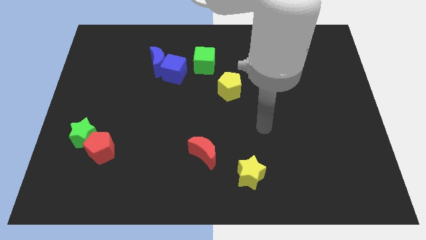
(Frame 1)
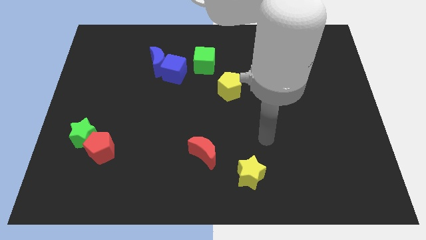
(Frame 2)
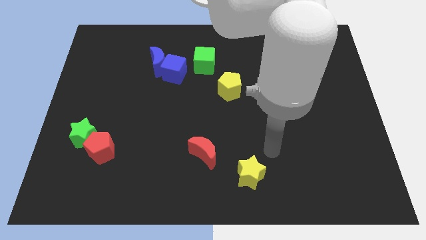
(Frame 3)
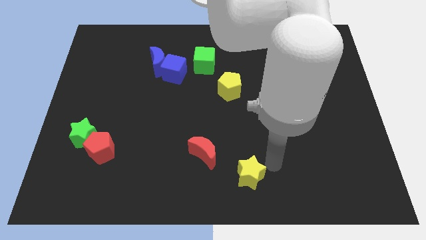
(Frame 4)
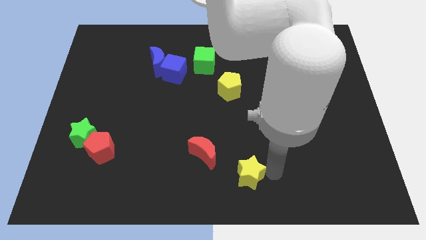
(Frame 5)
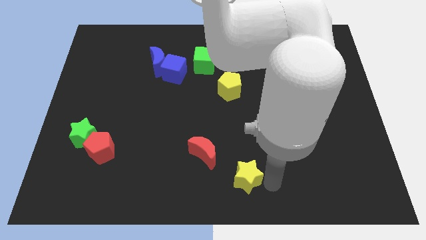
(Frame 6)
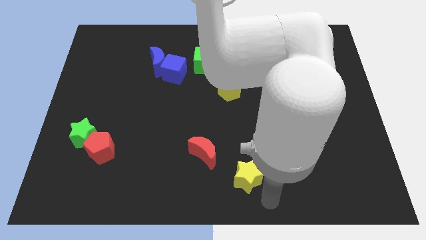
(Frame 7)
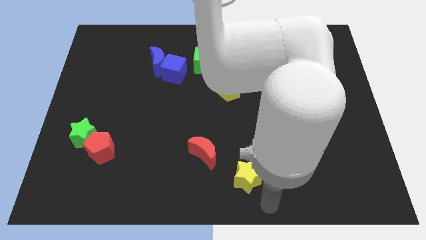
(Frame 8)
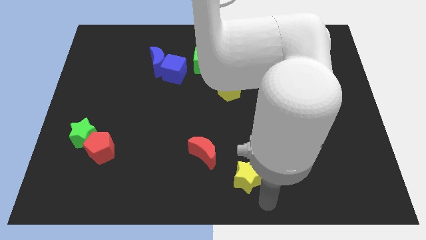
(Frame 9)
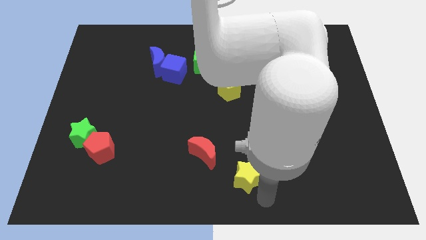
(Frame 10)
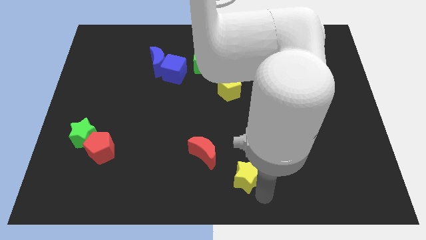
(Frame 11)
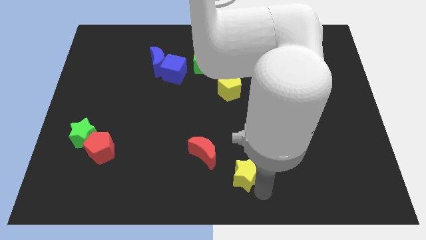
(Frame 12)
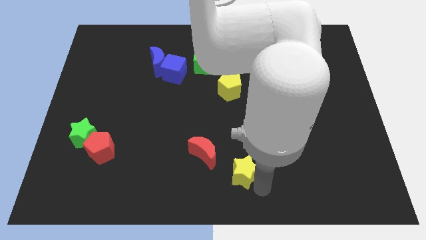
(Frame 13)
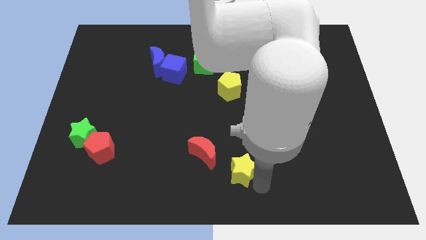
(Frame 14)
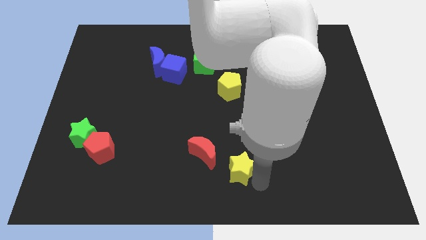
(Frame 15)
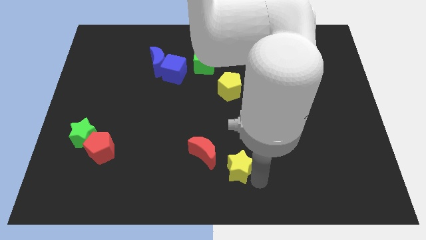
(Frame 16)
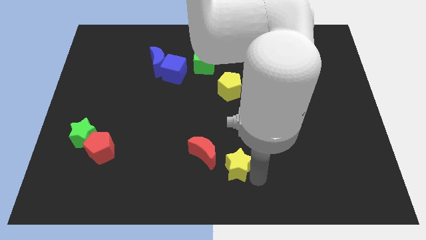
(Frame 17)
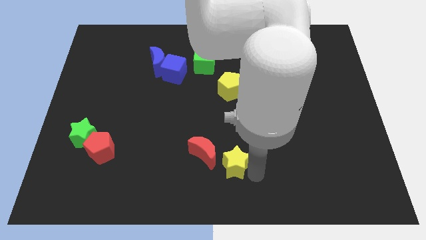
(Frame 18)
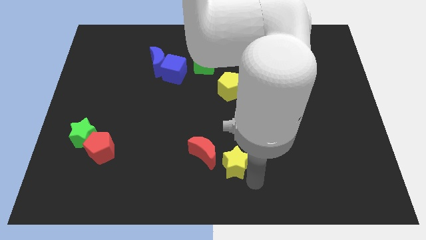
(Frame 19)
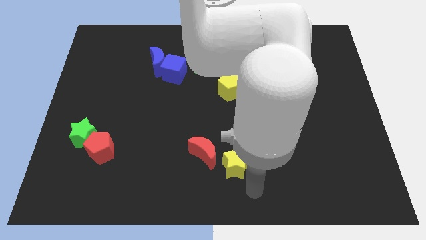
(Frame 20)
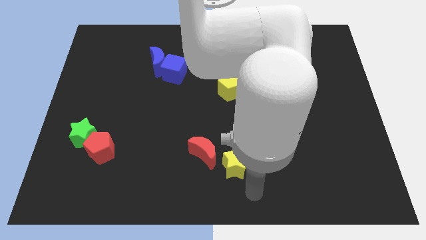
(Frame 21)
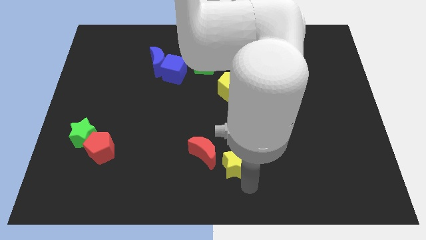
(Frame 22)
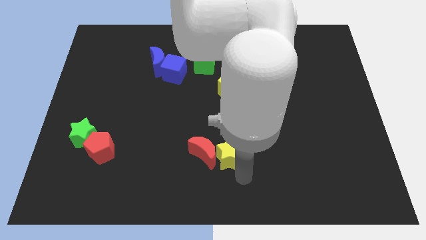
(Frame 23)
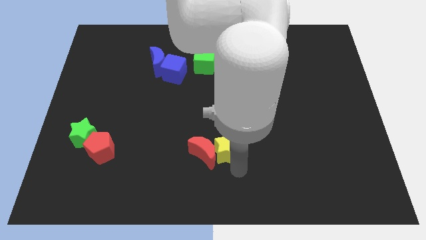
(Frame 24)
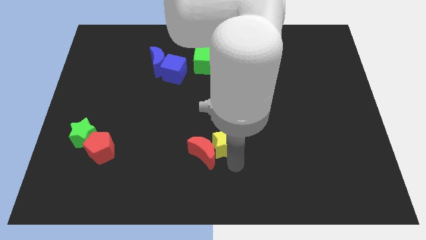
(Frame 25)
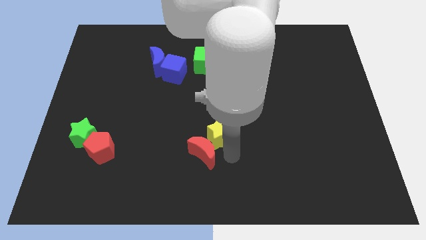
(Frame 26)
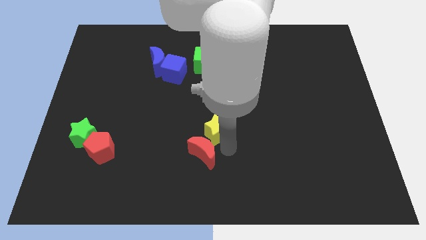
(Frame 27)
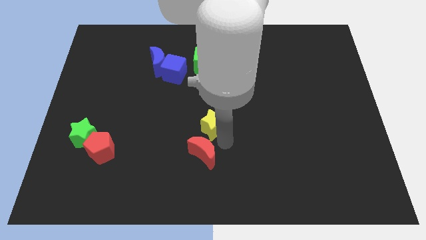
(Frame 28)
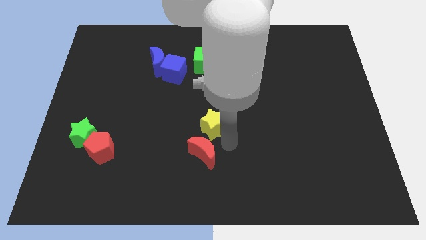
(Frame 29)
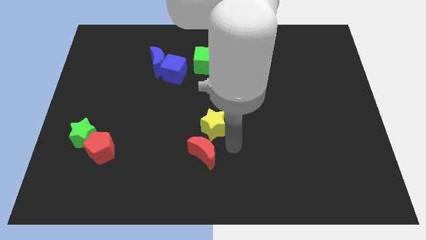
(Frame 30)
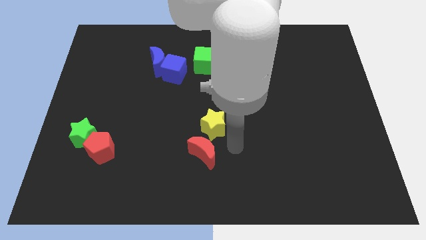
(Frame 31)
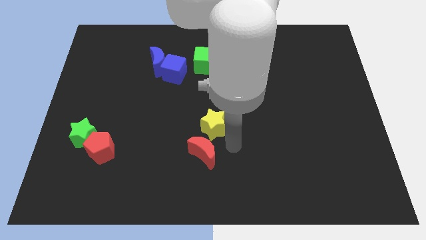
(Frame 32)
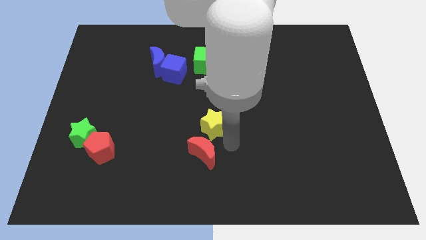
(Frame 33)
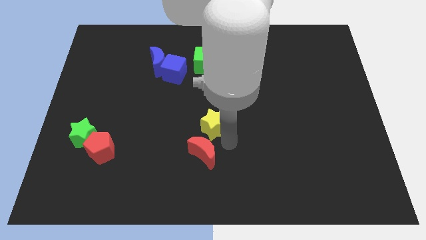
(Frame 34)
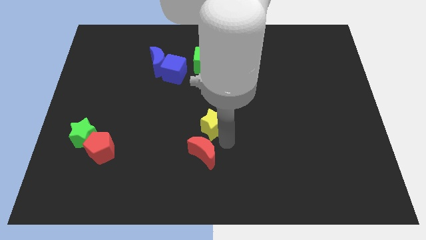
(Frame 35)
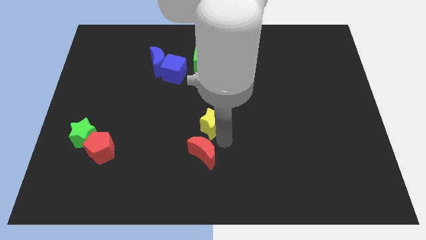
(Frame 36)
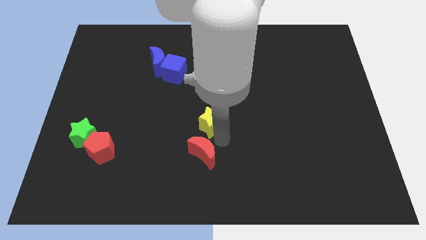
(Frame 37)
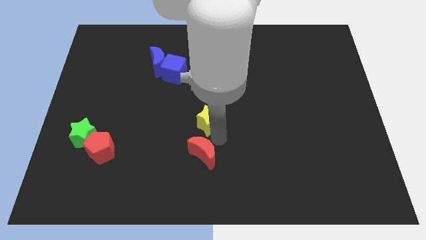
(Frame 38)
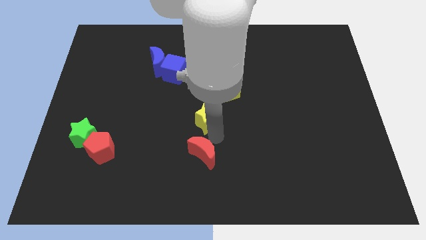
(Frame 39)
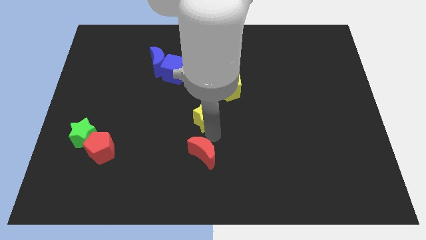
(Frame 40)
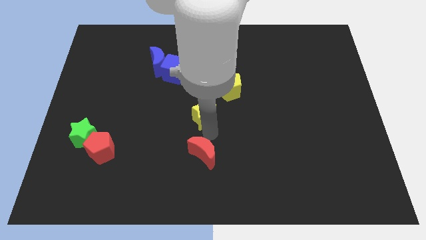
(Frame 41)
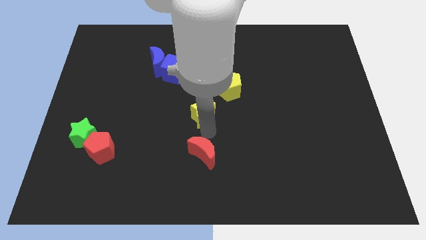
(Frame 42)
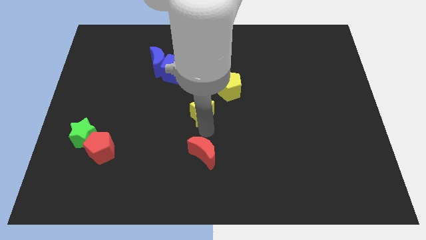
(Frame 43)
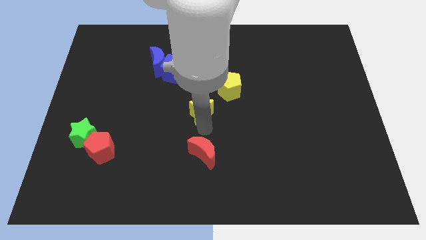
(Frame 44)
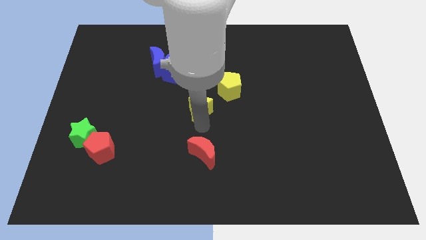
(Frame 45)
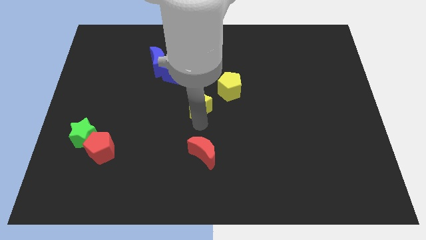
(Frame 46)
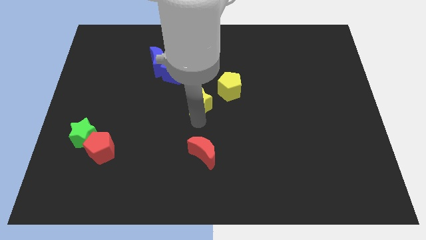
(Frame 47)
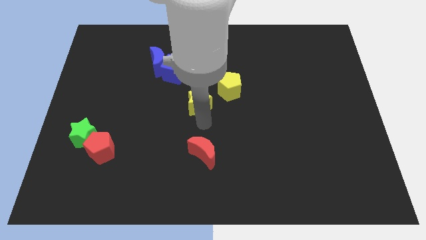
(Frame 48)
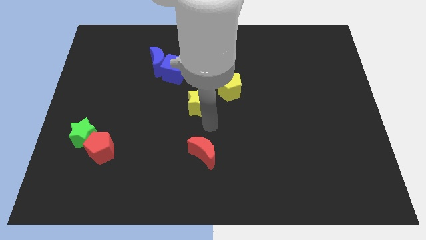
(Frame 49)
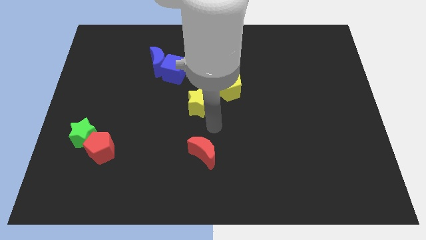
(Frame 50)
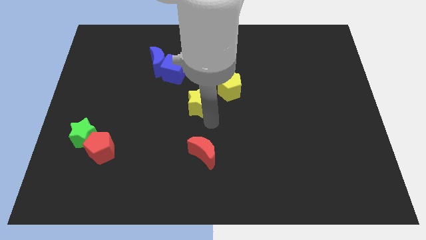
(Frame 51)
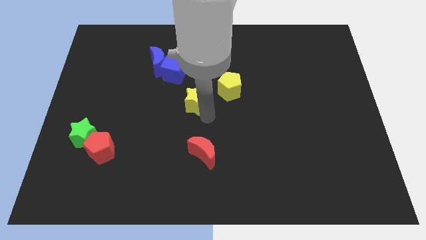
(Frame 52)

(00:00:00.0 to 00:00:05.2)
push the yellow star to the left side of the yellow pentagon

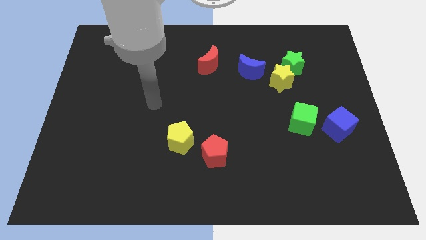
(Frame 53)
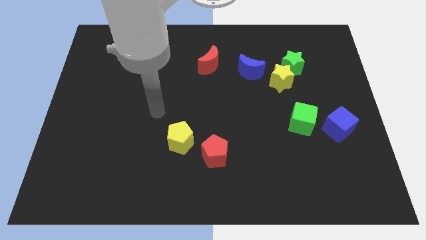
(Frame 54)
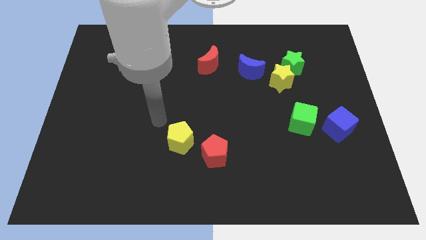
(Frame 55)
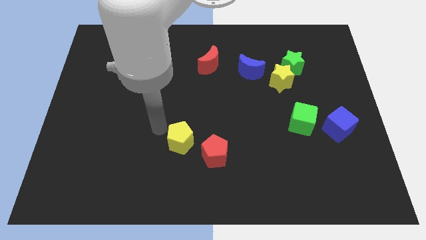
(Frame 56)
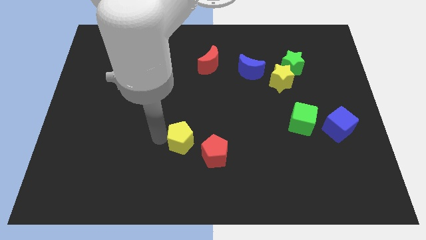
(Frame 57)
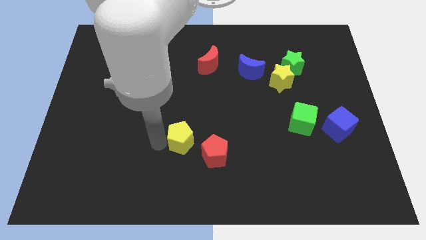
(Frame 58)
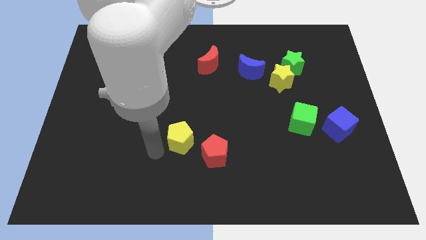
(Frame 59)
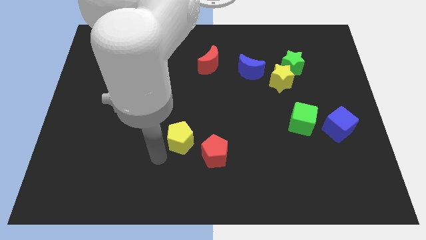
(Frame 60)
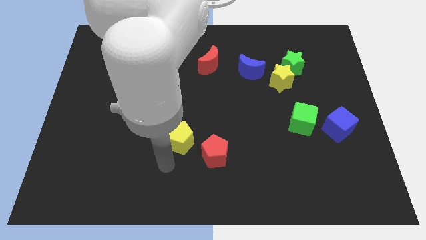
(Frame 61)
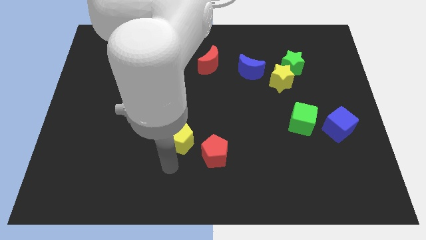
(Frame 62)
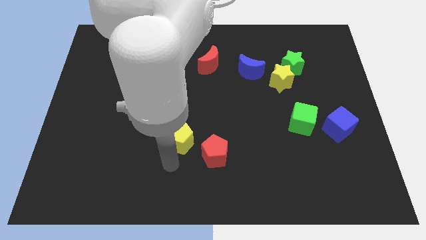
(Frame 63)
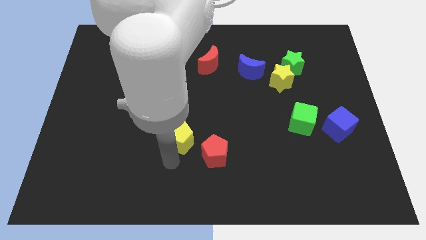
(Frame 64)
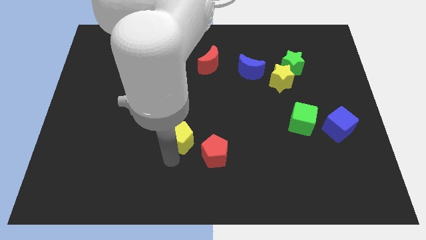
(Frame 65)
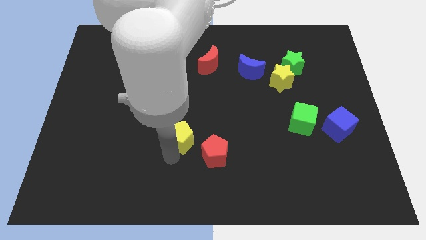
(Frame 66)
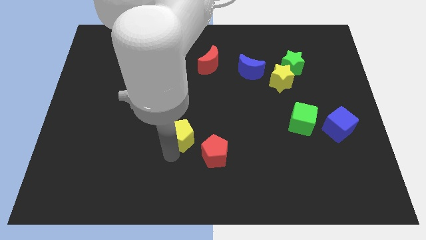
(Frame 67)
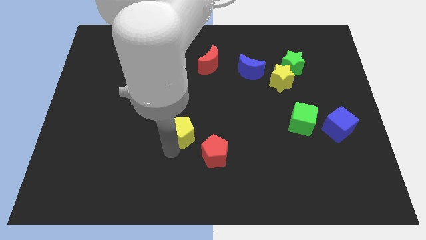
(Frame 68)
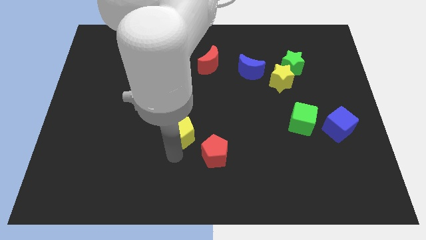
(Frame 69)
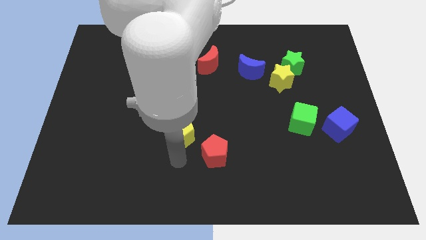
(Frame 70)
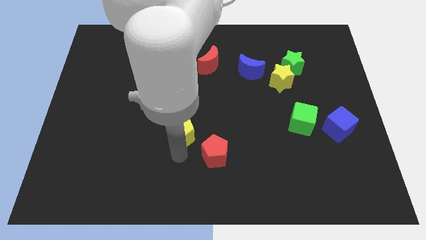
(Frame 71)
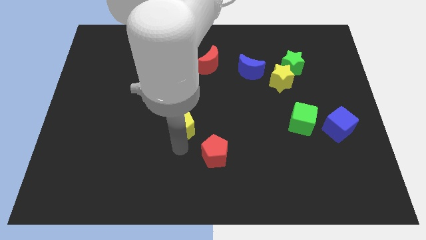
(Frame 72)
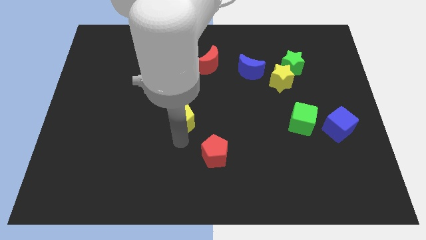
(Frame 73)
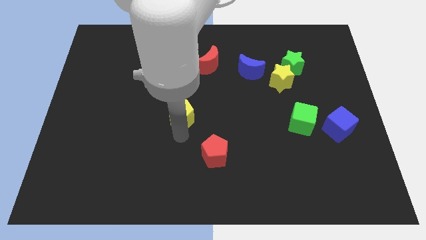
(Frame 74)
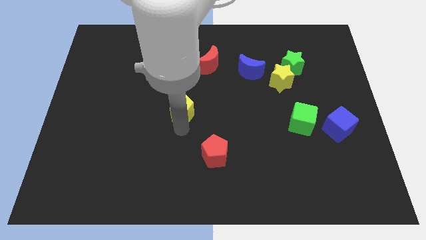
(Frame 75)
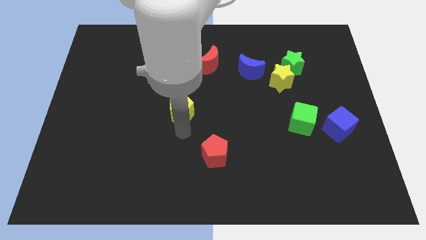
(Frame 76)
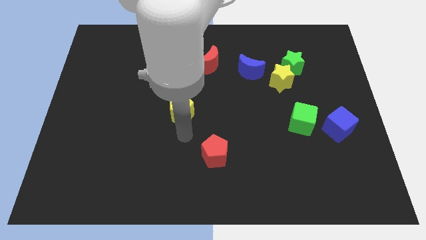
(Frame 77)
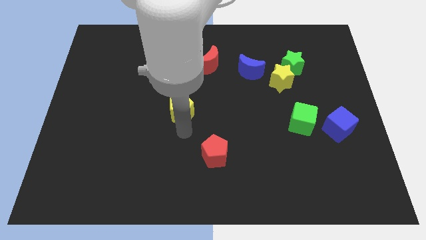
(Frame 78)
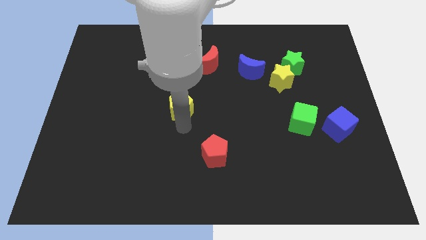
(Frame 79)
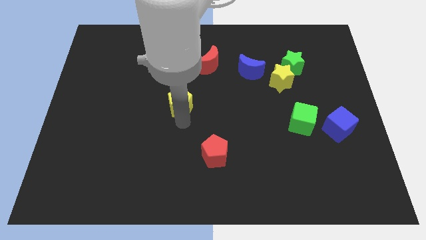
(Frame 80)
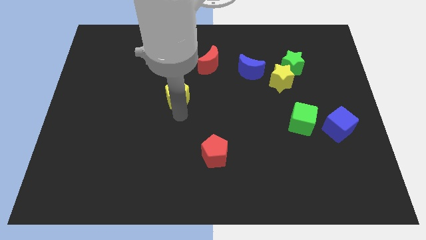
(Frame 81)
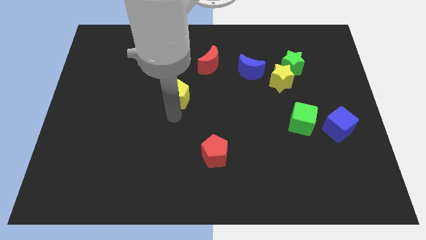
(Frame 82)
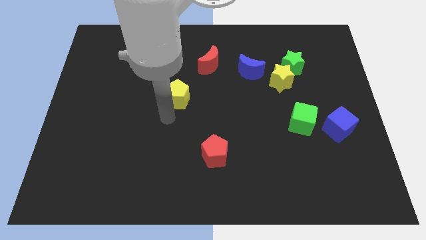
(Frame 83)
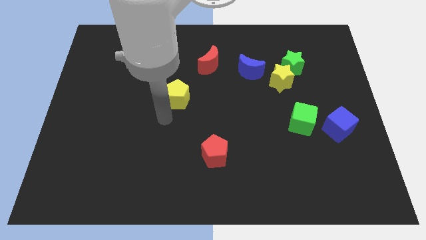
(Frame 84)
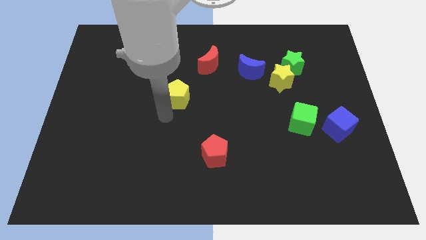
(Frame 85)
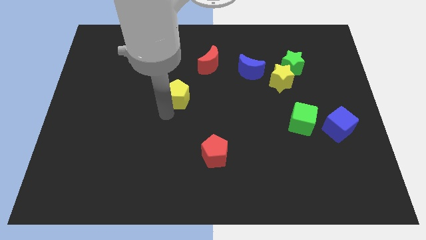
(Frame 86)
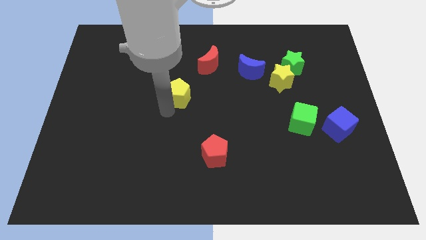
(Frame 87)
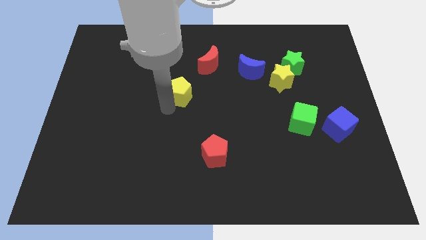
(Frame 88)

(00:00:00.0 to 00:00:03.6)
move the yellow pentagon diagonally down and to the left of the red moon
